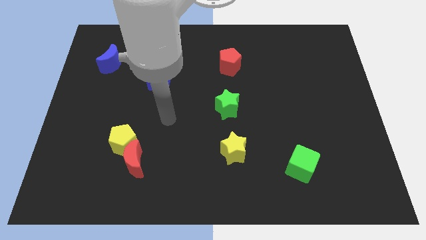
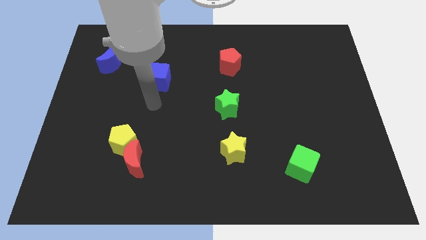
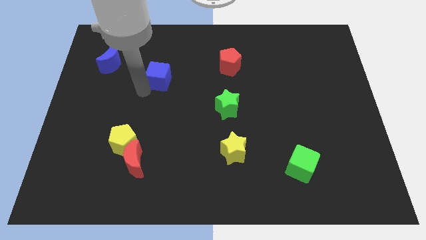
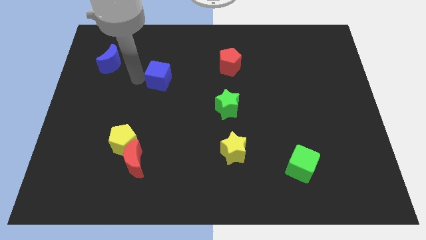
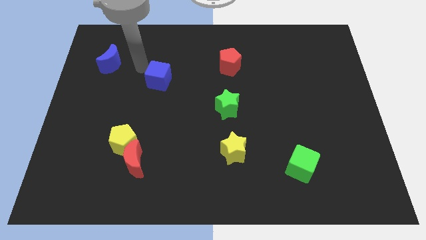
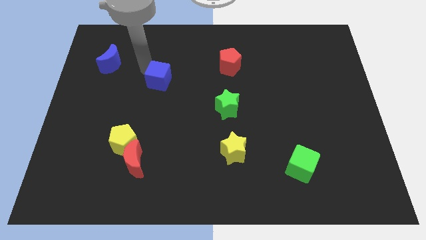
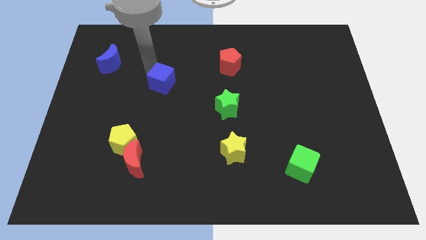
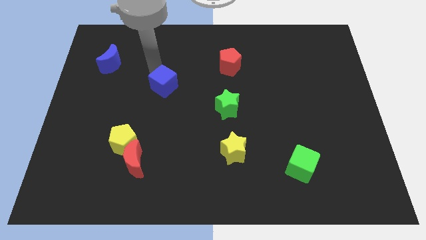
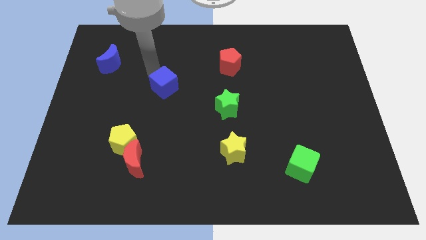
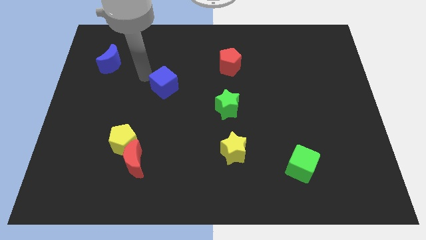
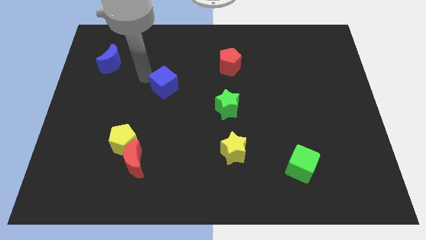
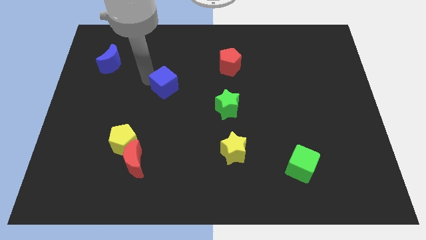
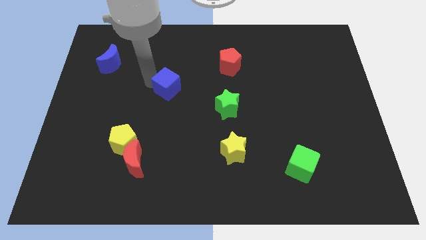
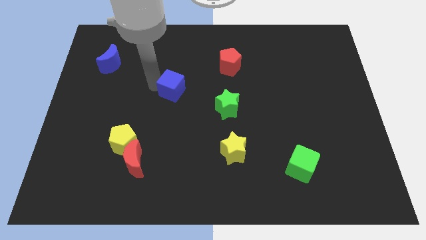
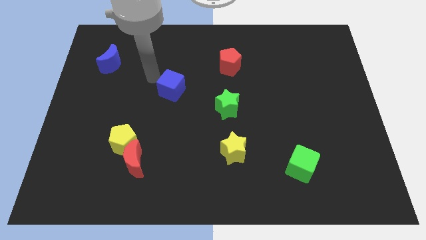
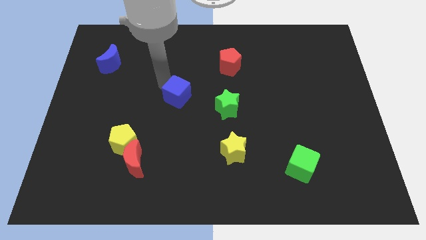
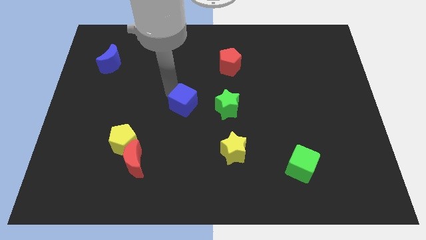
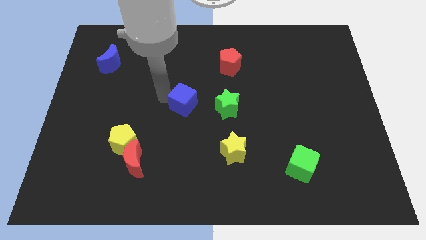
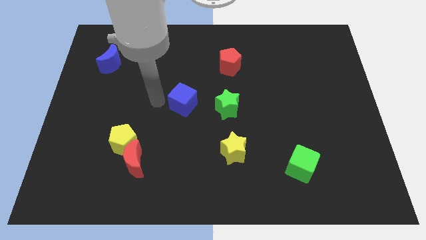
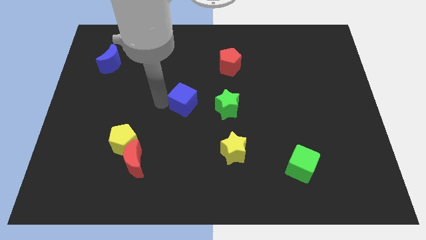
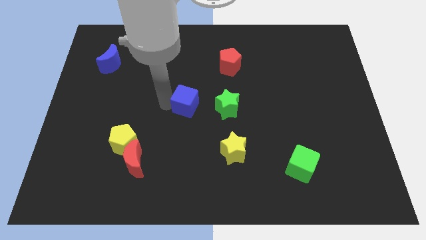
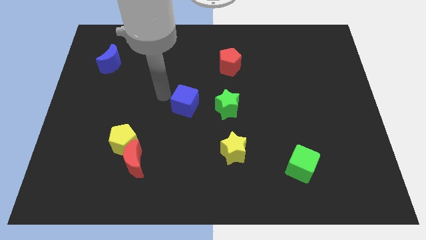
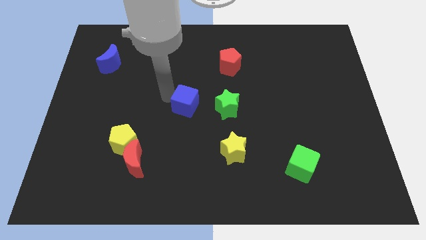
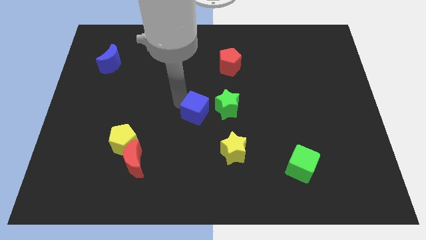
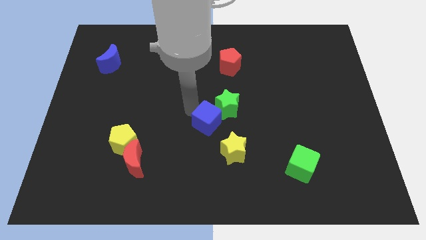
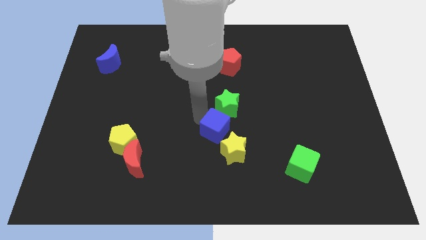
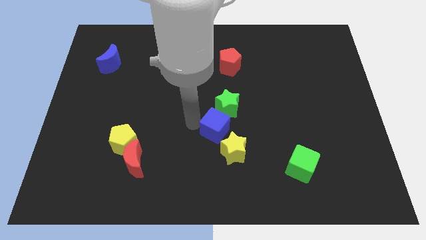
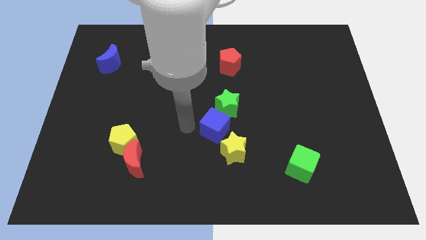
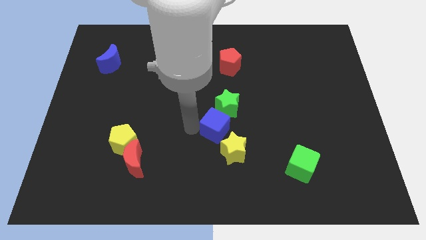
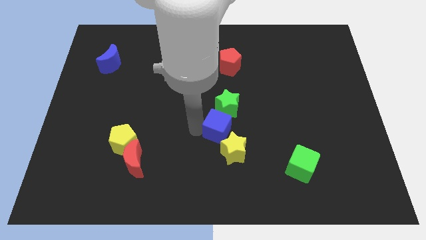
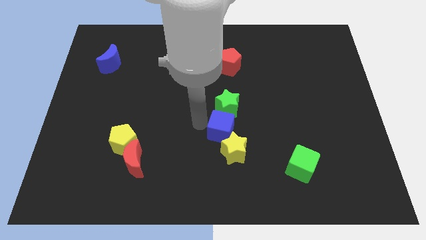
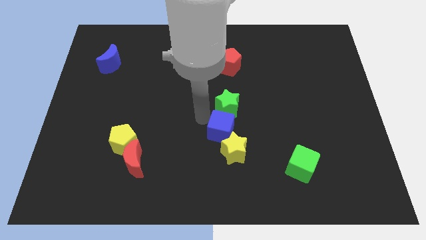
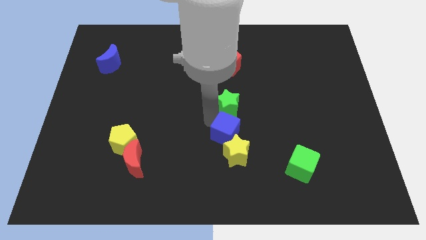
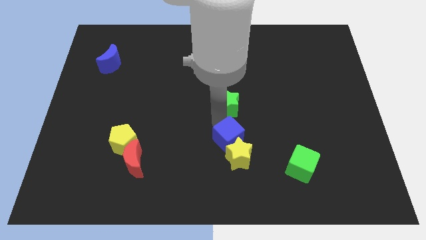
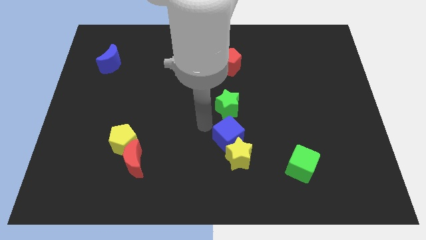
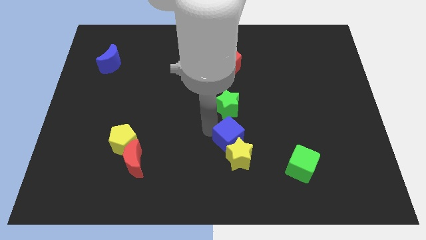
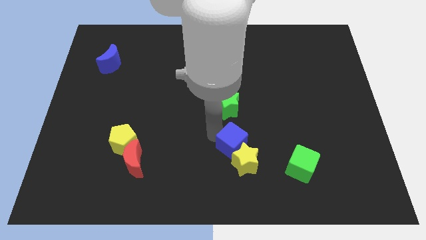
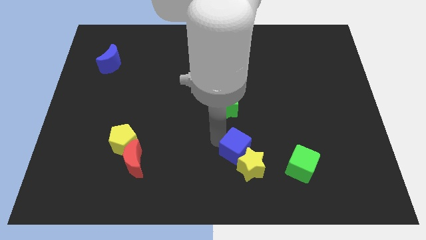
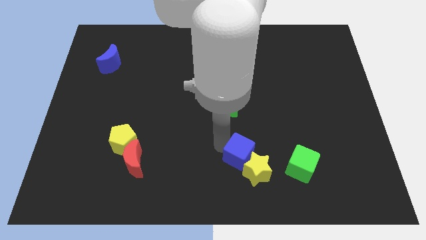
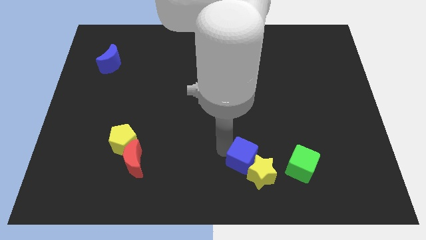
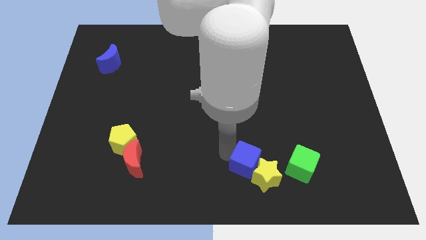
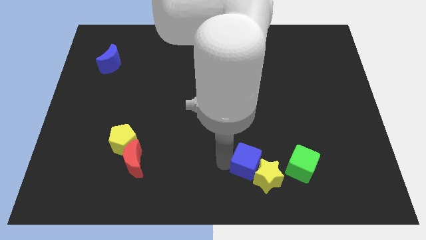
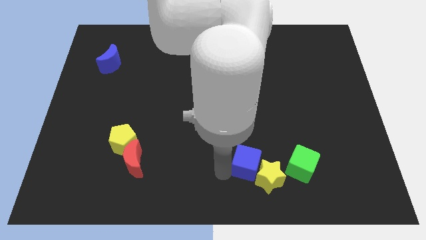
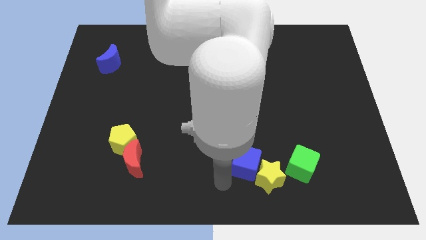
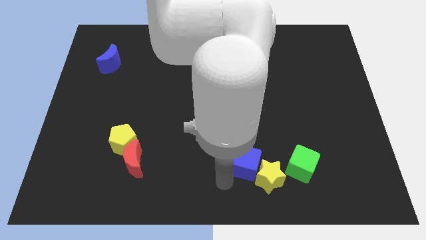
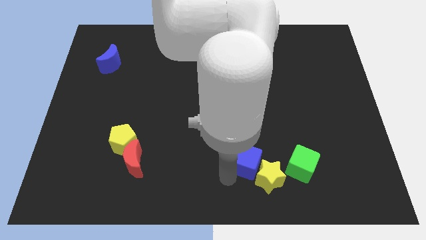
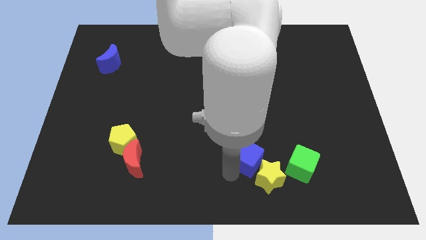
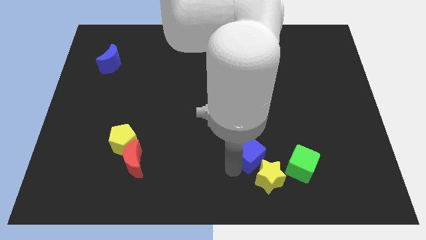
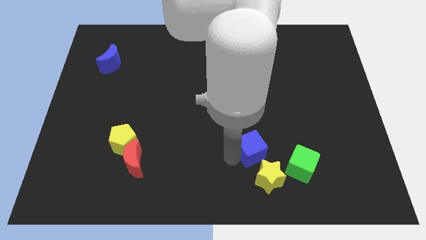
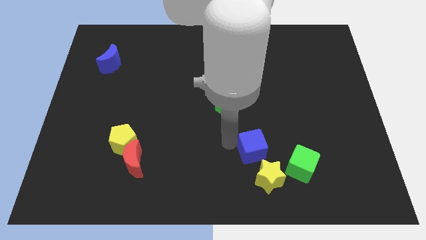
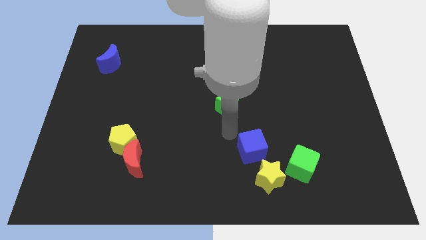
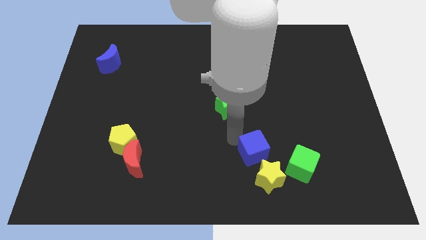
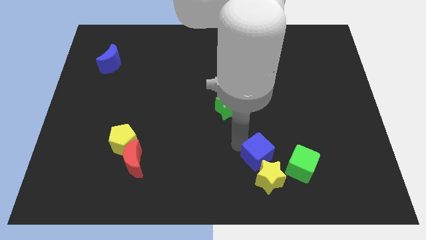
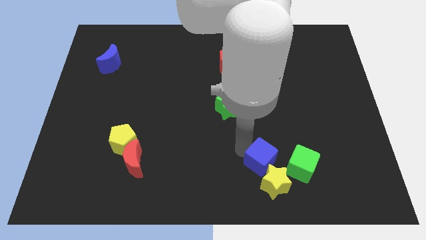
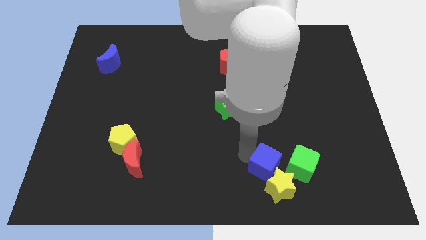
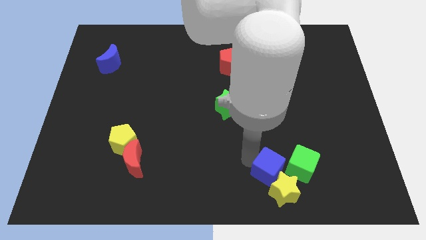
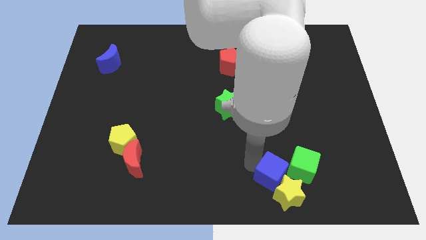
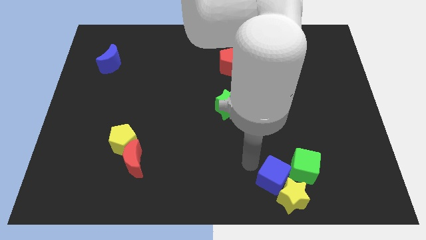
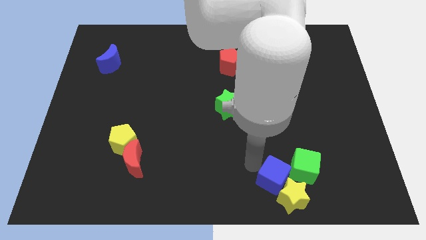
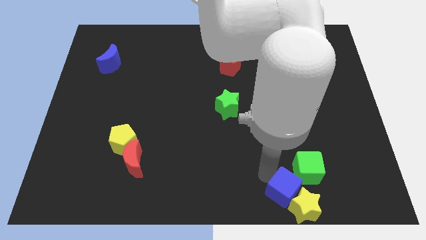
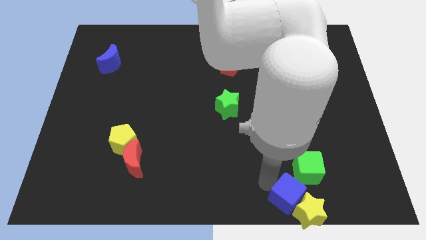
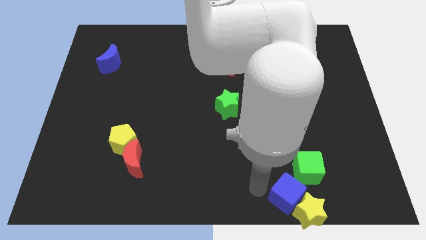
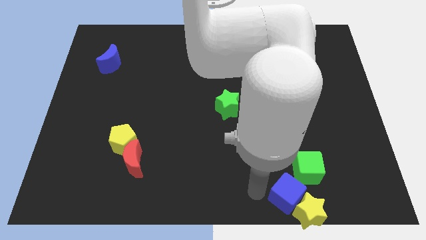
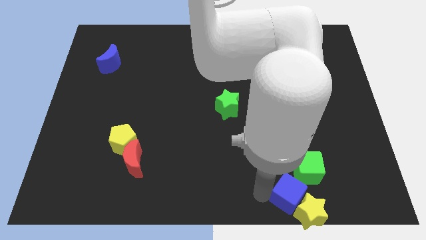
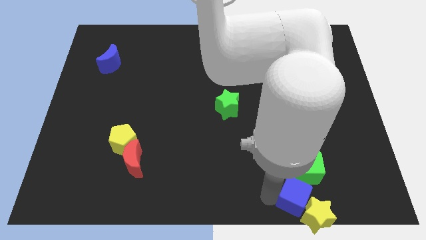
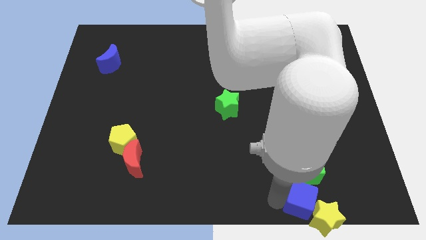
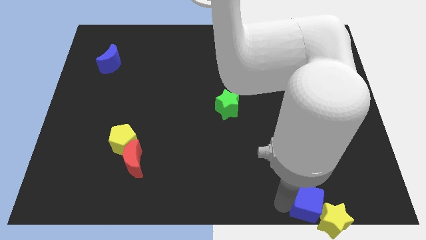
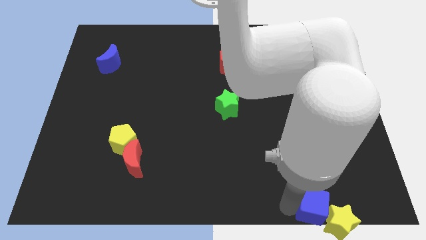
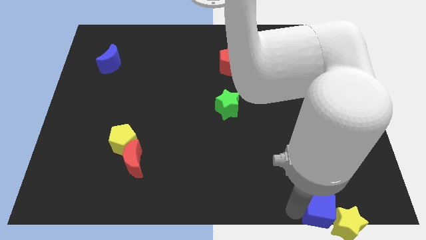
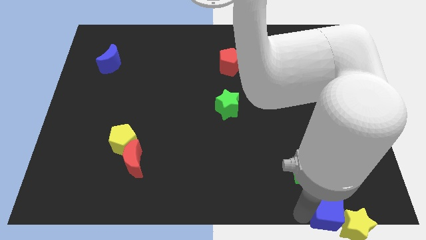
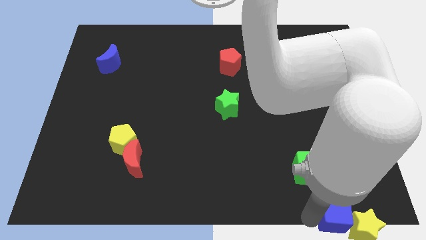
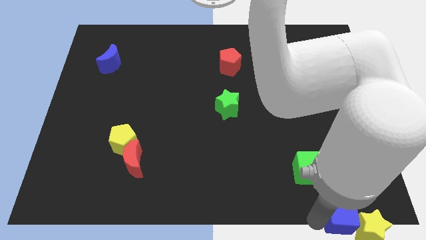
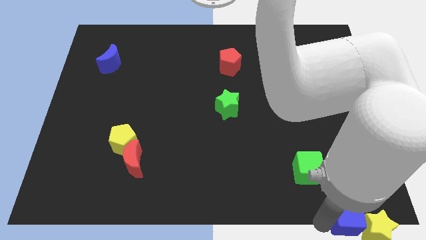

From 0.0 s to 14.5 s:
put the blue cube to the bottom right corner
